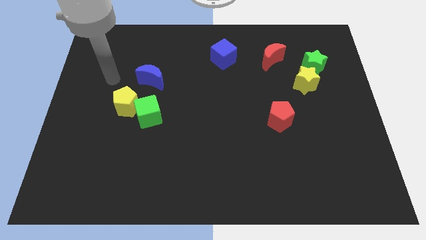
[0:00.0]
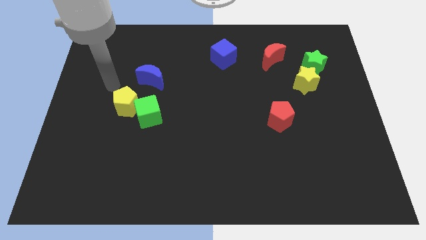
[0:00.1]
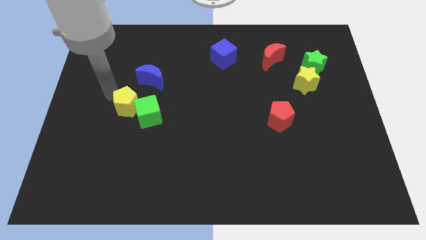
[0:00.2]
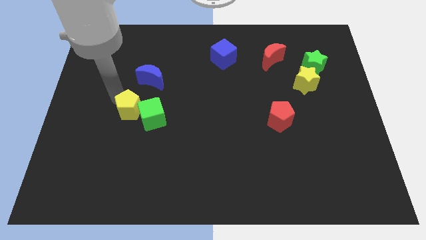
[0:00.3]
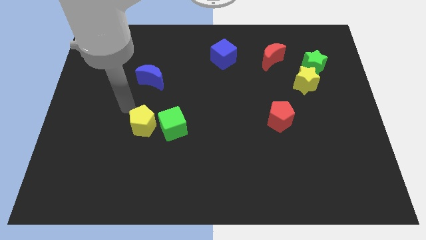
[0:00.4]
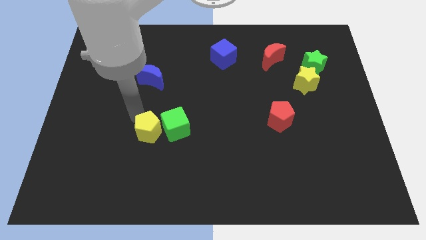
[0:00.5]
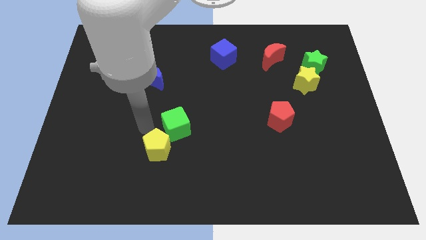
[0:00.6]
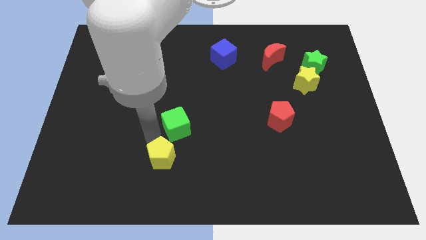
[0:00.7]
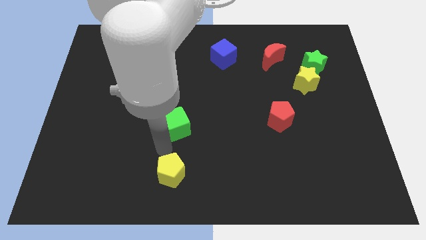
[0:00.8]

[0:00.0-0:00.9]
pull the green cube apart from the yellow pentagon

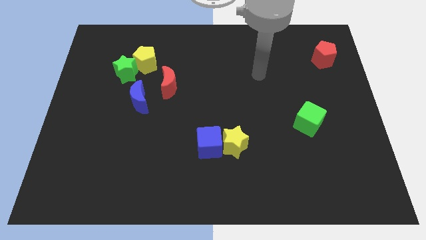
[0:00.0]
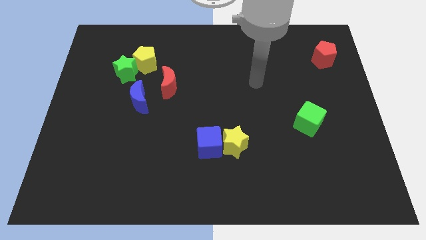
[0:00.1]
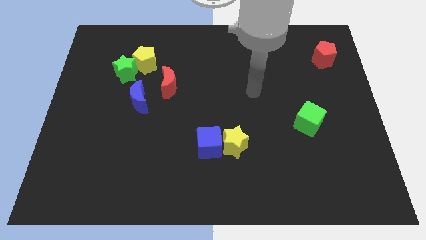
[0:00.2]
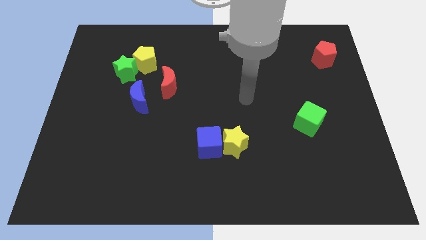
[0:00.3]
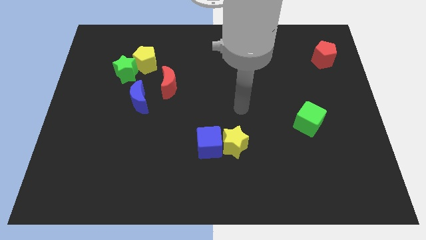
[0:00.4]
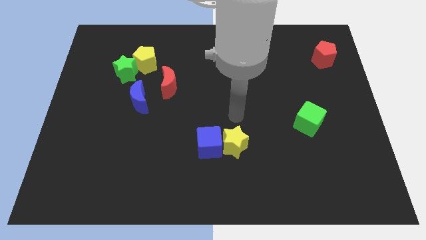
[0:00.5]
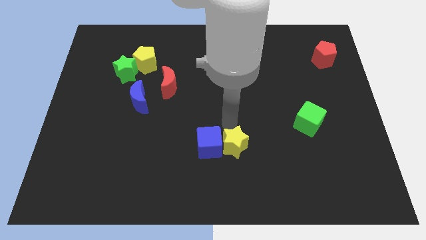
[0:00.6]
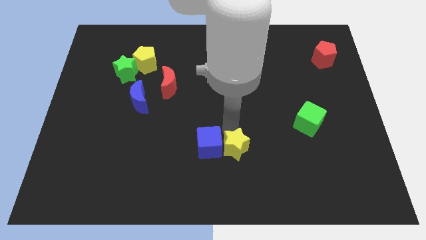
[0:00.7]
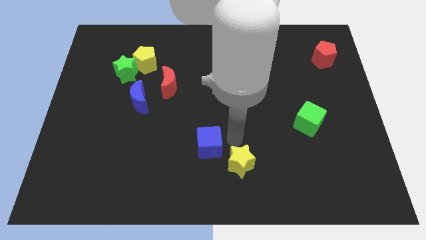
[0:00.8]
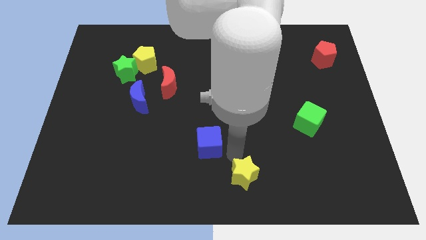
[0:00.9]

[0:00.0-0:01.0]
separate the blue cube from the yellow star

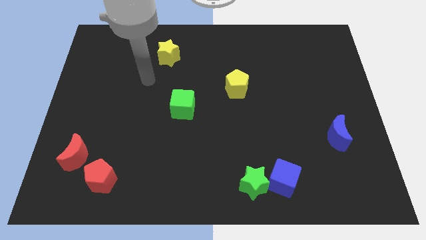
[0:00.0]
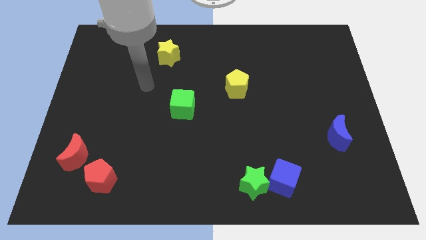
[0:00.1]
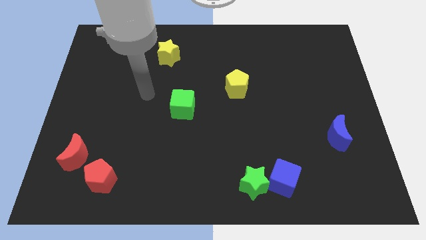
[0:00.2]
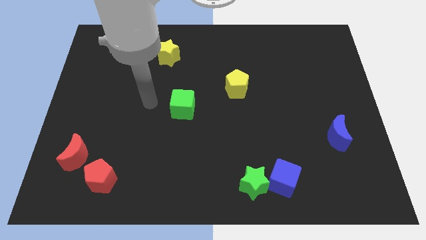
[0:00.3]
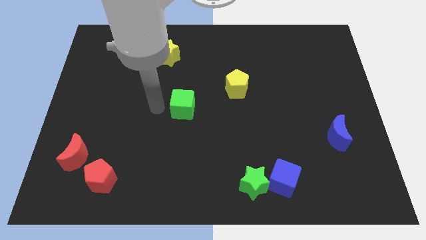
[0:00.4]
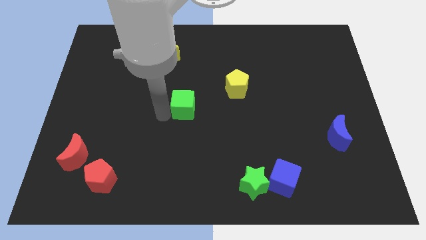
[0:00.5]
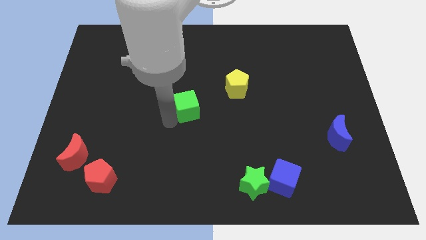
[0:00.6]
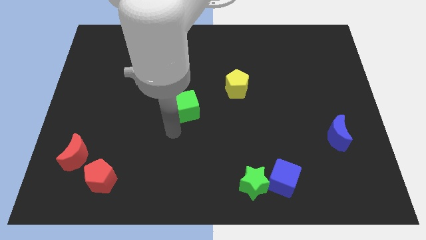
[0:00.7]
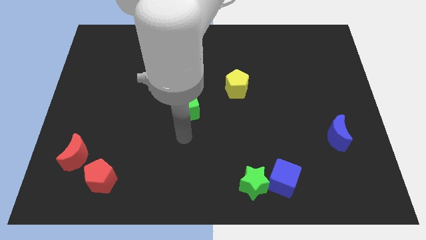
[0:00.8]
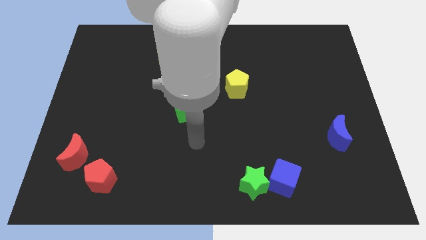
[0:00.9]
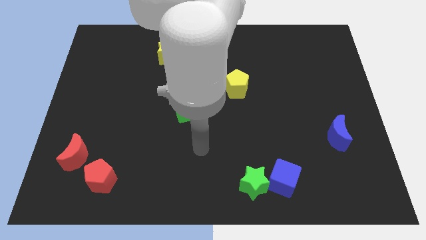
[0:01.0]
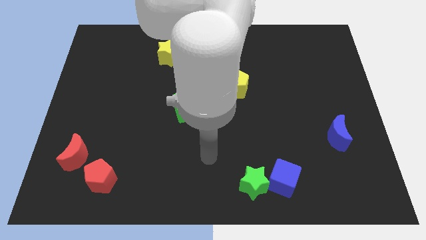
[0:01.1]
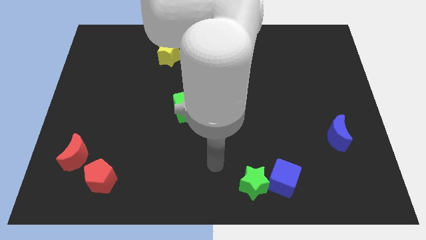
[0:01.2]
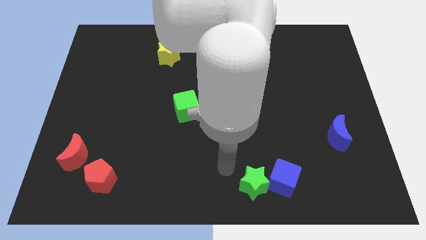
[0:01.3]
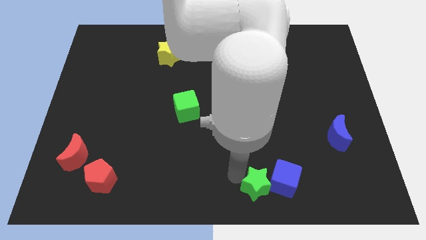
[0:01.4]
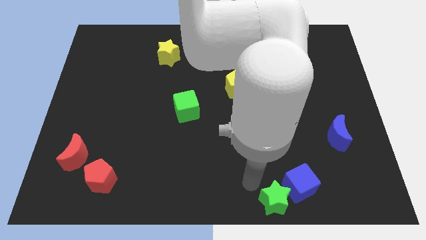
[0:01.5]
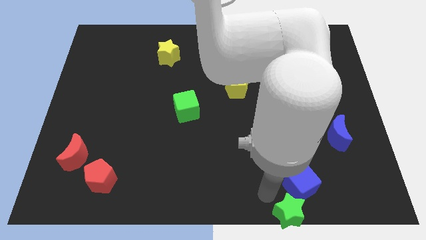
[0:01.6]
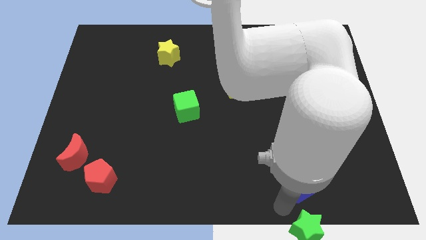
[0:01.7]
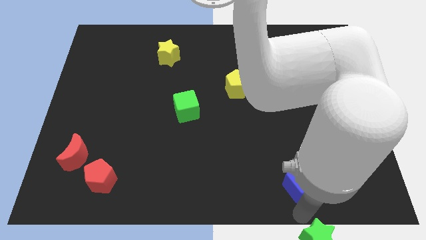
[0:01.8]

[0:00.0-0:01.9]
separate the blue cube from the green star

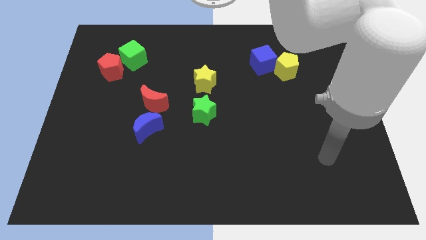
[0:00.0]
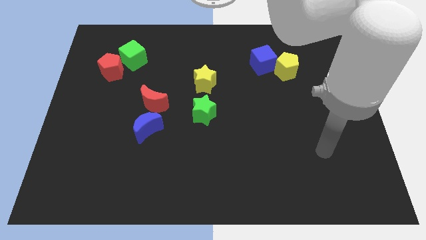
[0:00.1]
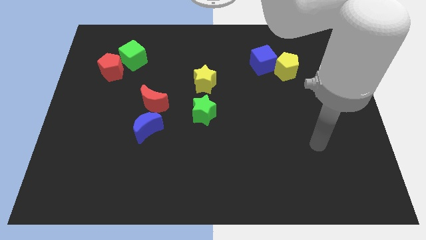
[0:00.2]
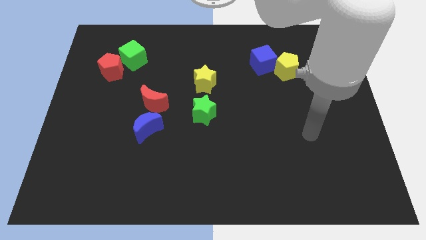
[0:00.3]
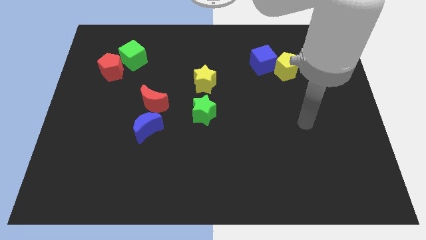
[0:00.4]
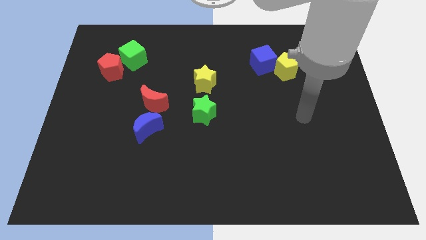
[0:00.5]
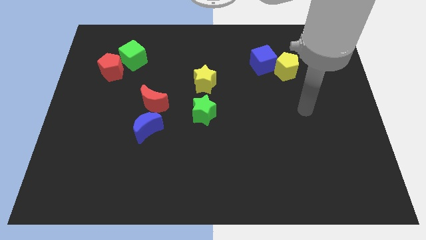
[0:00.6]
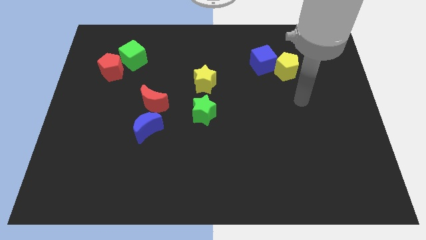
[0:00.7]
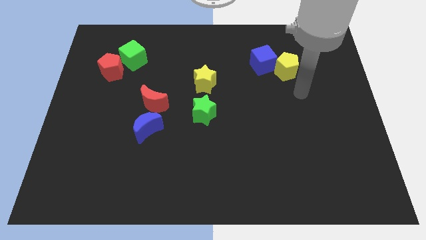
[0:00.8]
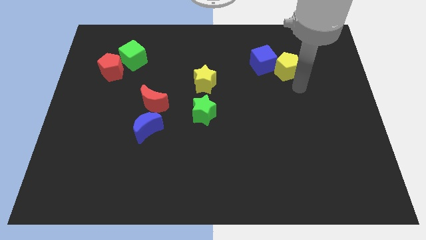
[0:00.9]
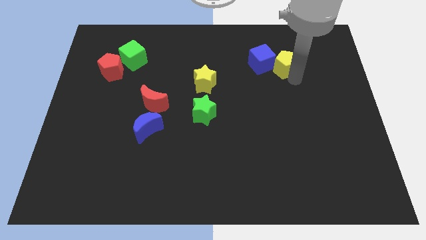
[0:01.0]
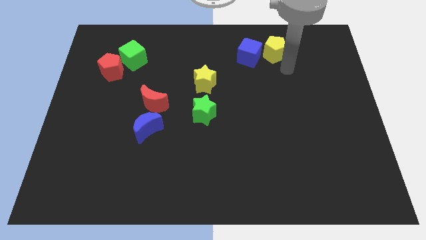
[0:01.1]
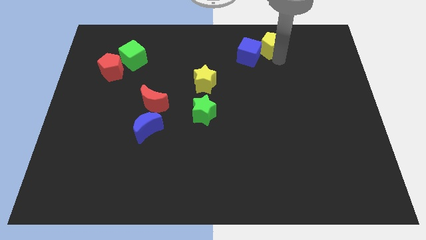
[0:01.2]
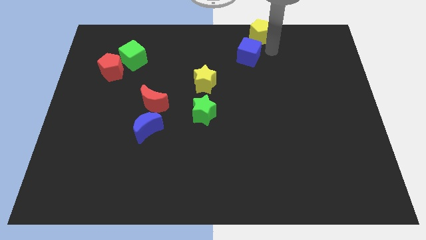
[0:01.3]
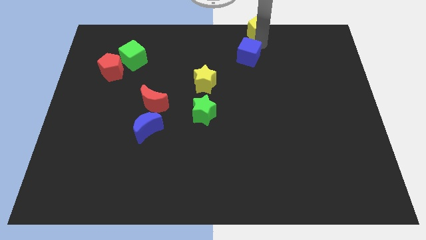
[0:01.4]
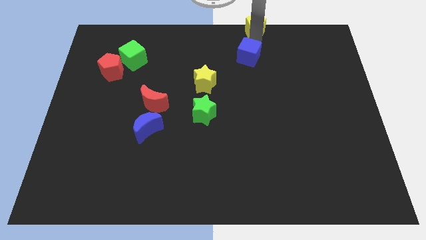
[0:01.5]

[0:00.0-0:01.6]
pull the blue cube apart from the yellow pentagon

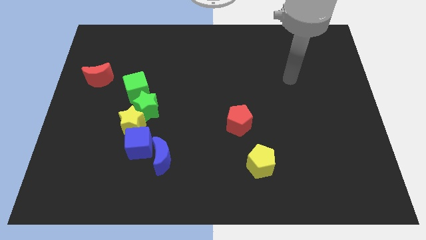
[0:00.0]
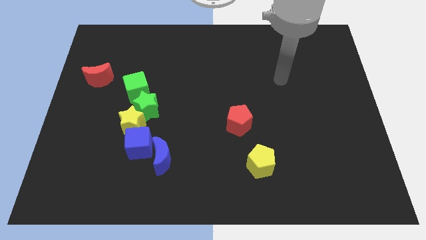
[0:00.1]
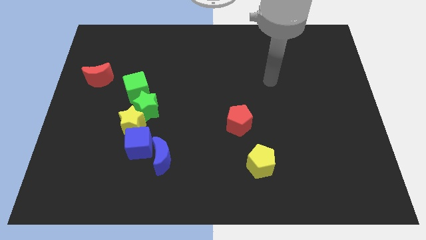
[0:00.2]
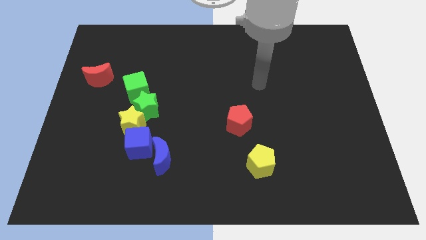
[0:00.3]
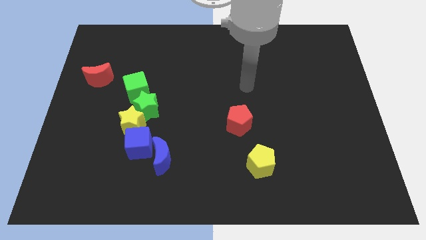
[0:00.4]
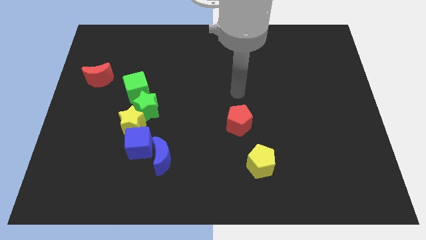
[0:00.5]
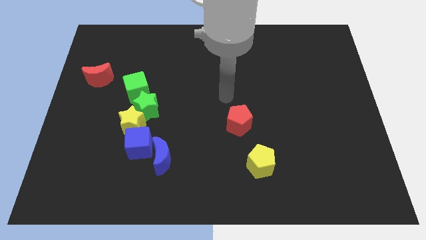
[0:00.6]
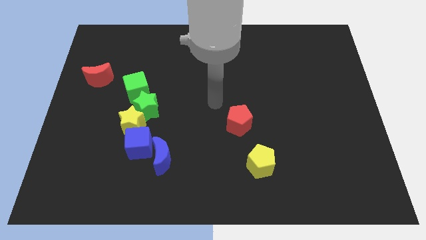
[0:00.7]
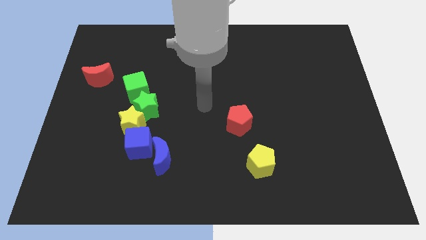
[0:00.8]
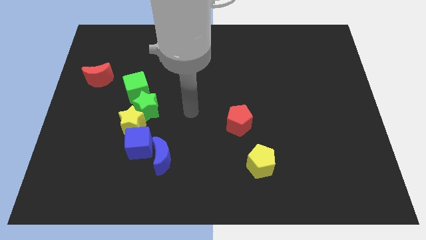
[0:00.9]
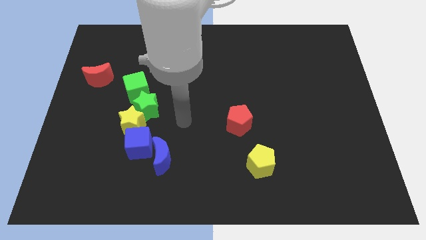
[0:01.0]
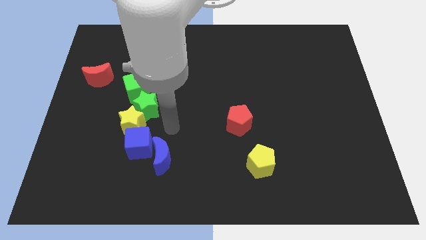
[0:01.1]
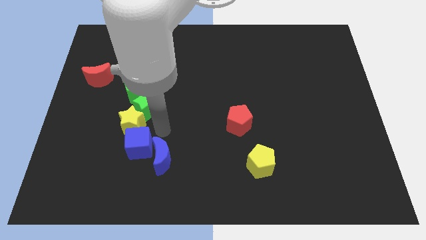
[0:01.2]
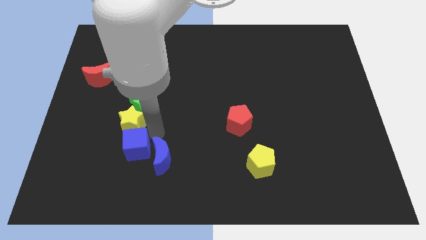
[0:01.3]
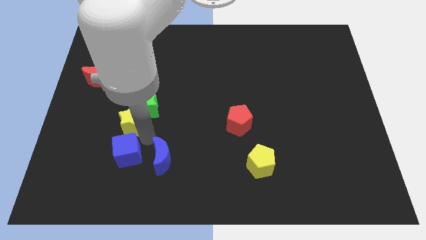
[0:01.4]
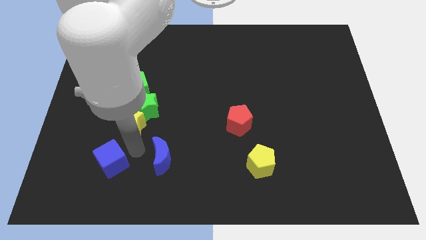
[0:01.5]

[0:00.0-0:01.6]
separate the blue moon from the blue cube

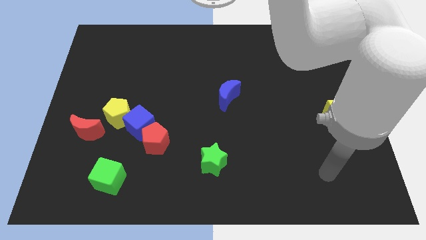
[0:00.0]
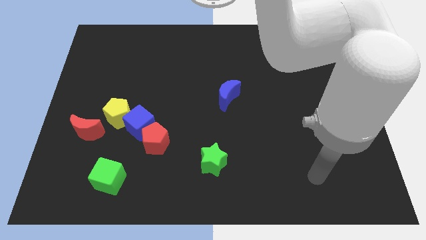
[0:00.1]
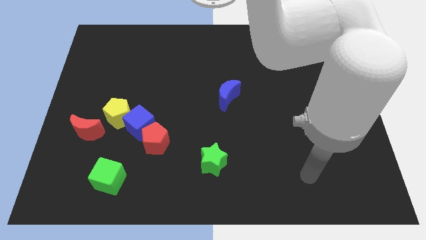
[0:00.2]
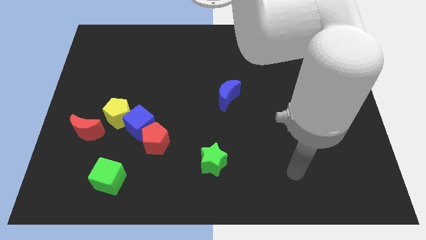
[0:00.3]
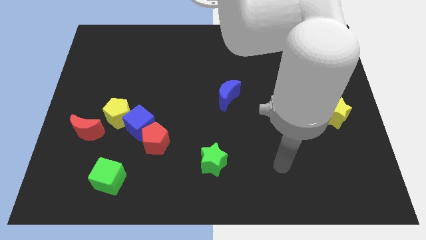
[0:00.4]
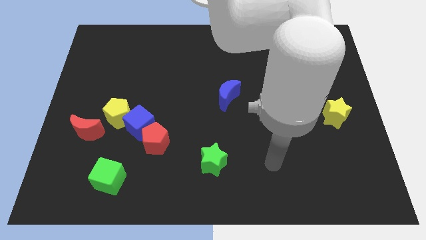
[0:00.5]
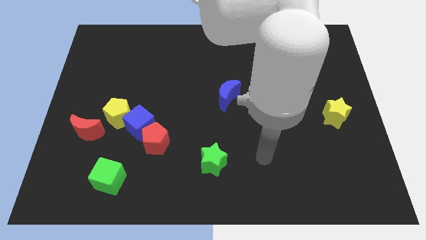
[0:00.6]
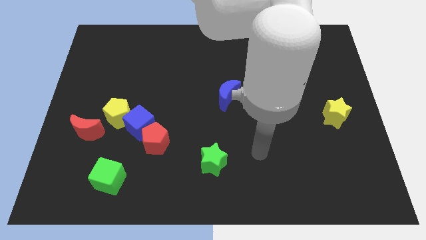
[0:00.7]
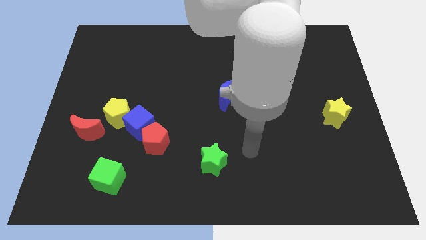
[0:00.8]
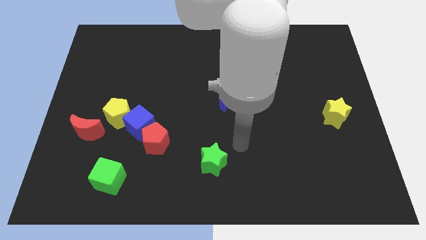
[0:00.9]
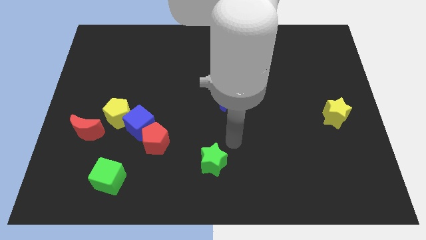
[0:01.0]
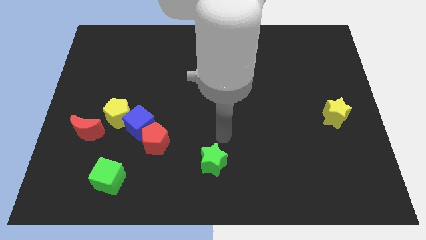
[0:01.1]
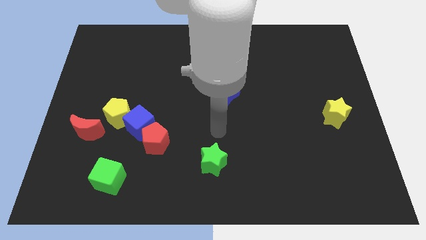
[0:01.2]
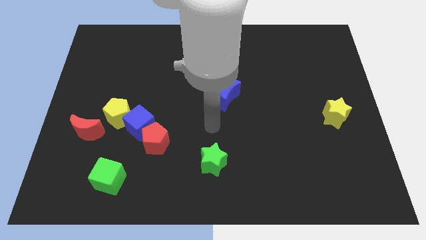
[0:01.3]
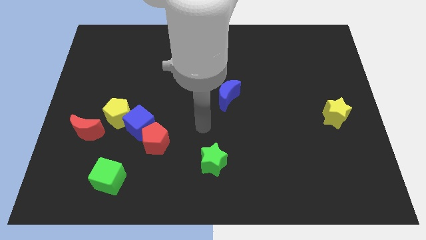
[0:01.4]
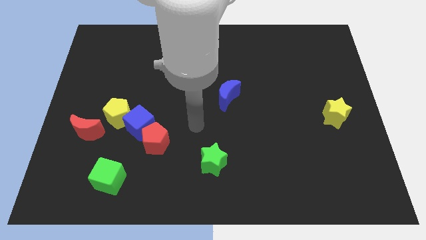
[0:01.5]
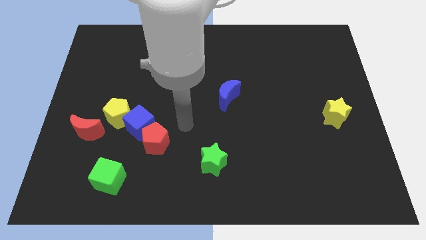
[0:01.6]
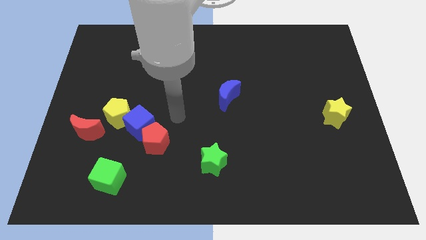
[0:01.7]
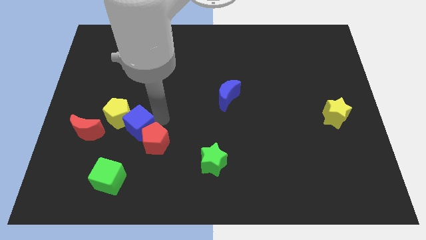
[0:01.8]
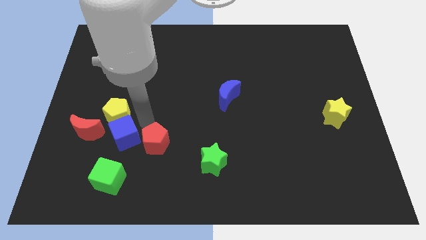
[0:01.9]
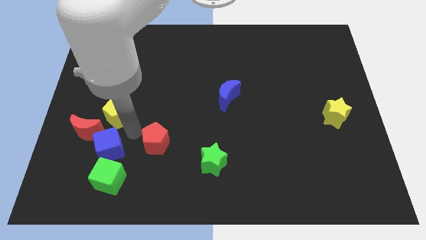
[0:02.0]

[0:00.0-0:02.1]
pull the red pentagon apart from the blue cube

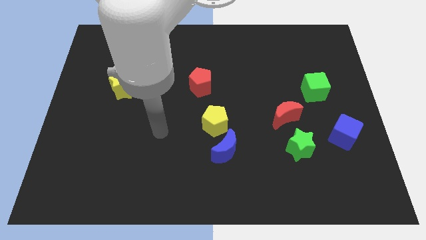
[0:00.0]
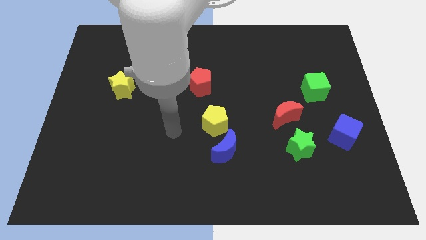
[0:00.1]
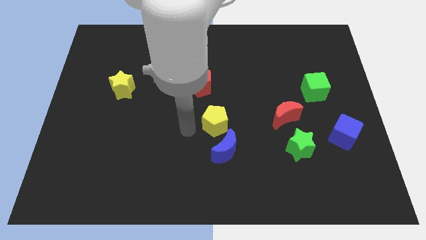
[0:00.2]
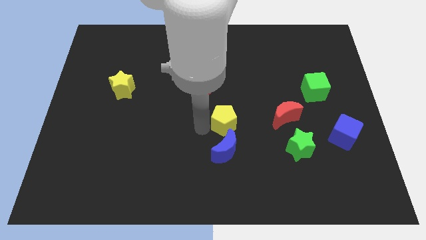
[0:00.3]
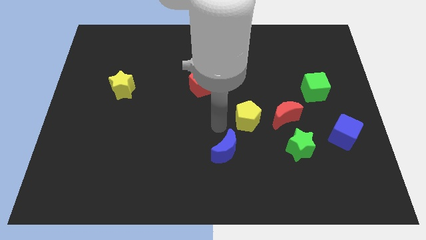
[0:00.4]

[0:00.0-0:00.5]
separate the blue moon from the yellow pentagon
